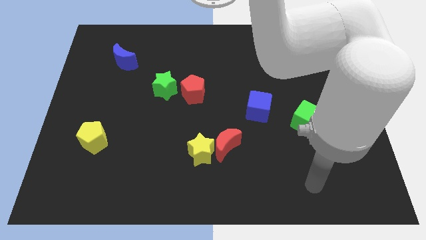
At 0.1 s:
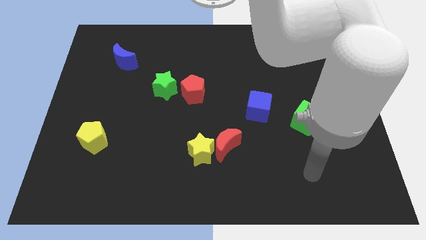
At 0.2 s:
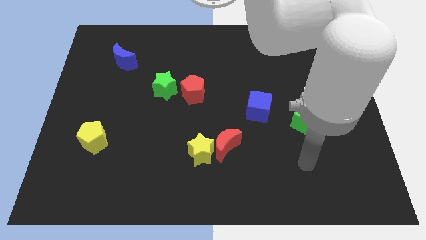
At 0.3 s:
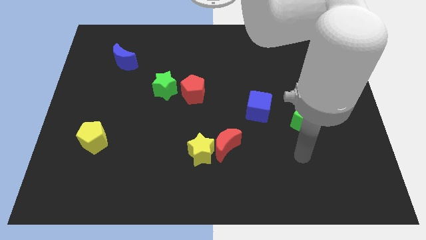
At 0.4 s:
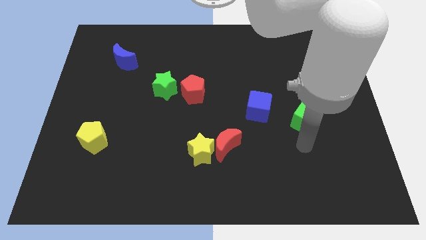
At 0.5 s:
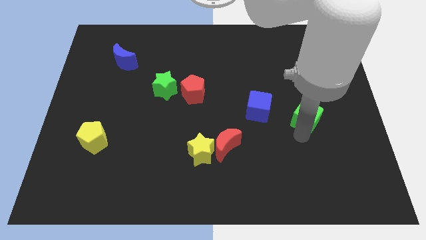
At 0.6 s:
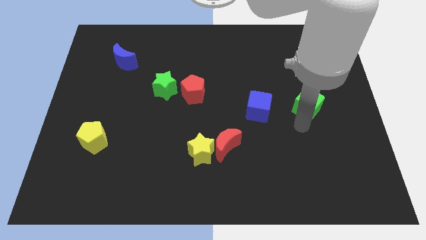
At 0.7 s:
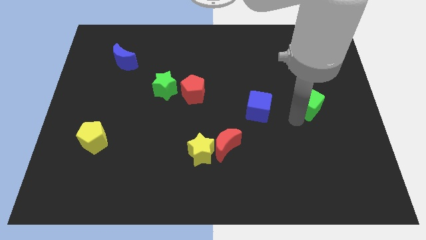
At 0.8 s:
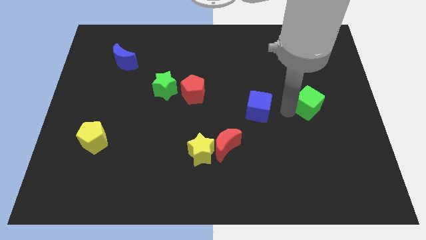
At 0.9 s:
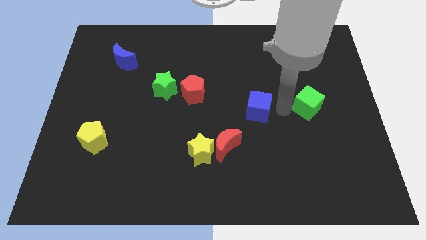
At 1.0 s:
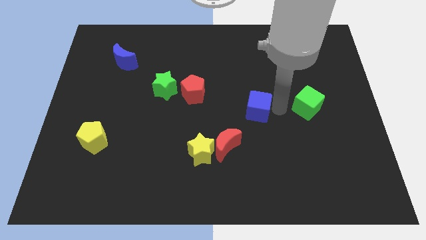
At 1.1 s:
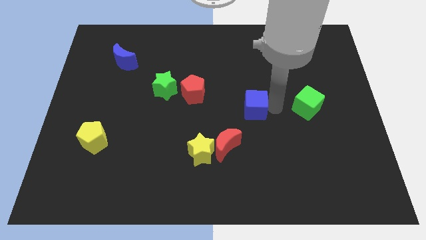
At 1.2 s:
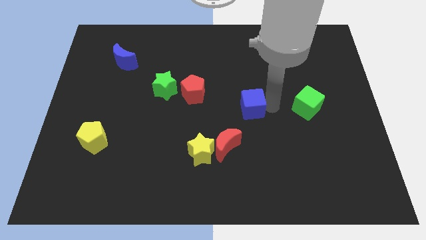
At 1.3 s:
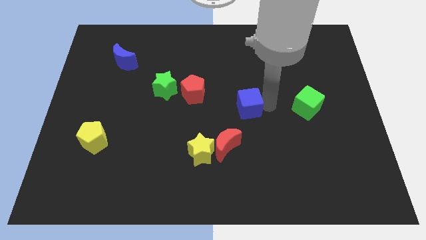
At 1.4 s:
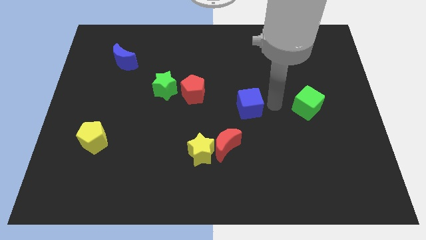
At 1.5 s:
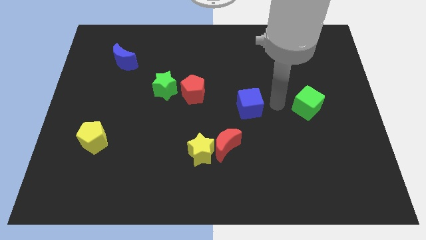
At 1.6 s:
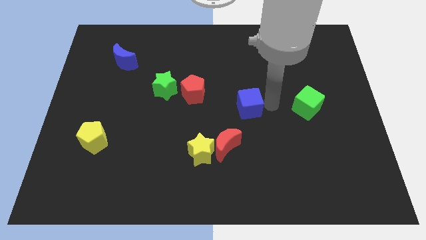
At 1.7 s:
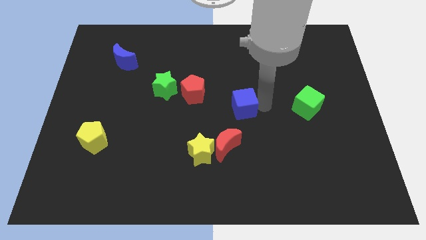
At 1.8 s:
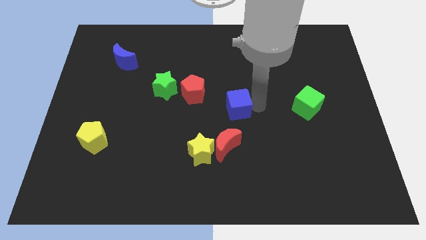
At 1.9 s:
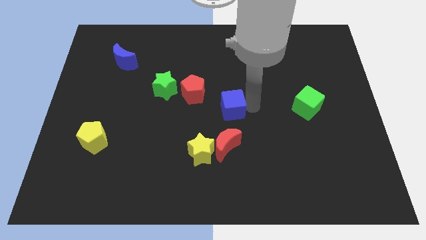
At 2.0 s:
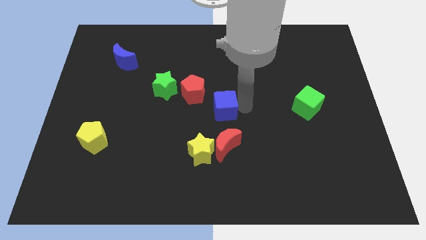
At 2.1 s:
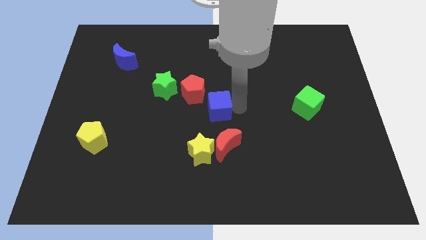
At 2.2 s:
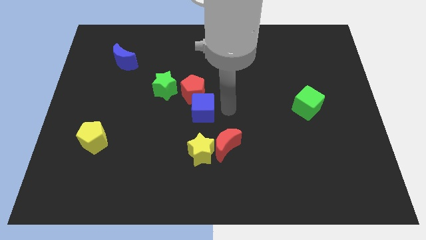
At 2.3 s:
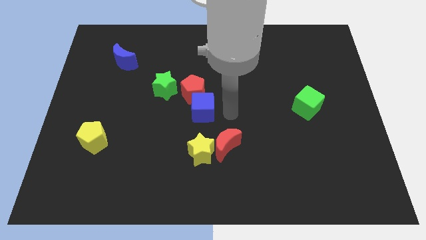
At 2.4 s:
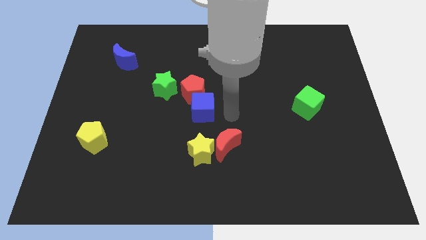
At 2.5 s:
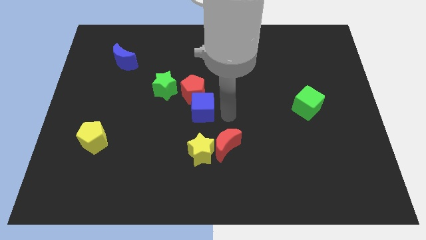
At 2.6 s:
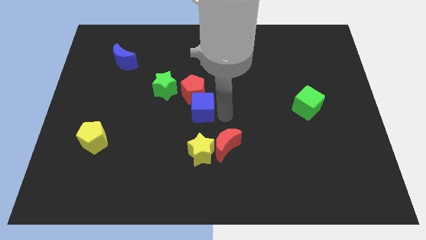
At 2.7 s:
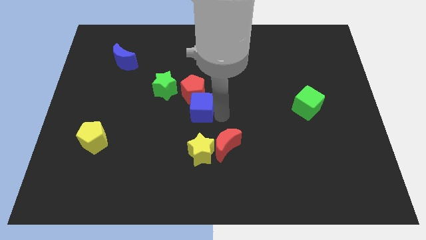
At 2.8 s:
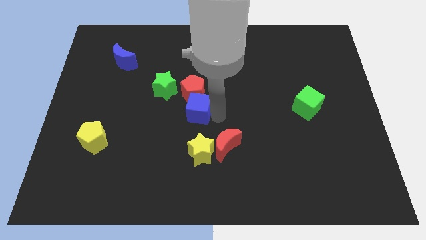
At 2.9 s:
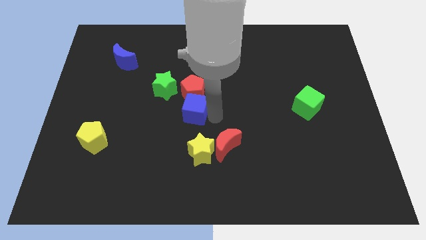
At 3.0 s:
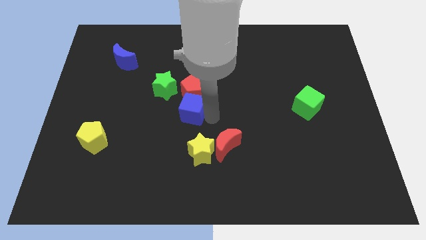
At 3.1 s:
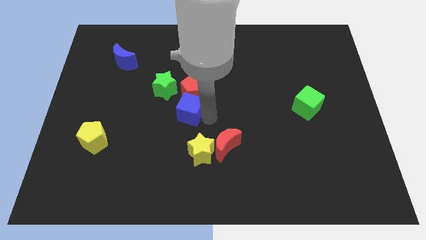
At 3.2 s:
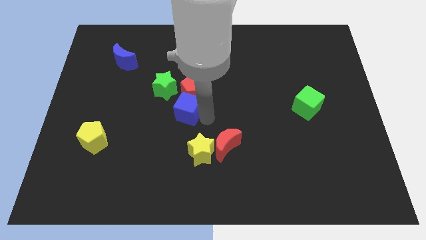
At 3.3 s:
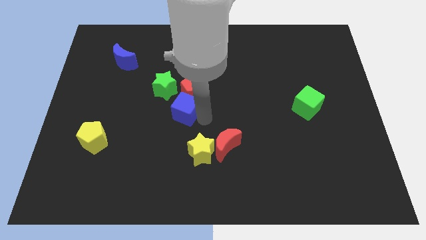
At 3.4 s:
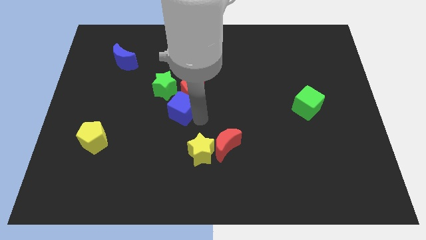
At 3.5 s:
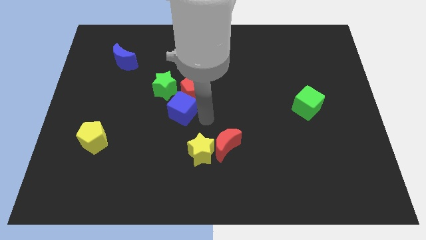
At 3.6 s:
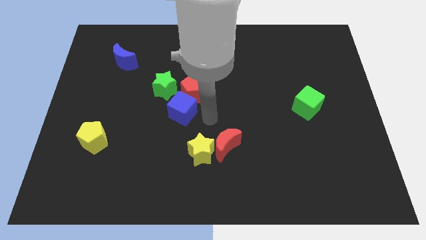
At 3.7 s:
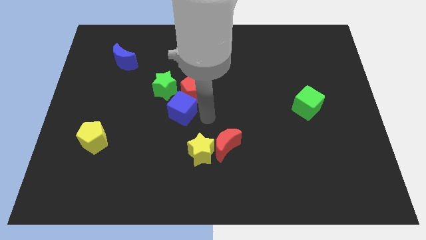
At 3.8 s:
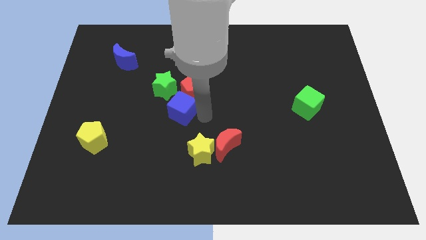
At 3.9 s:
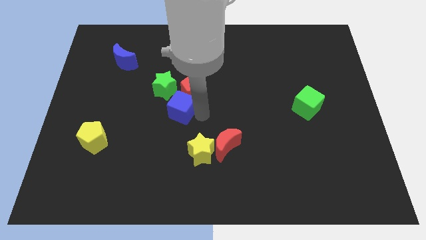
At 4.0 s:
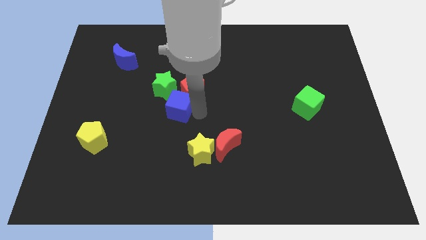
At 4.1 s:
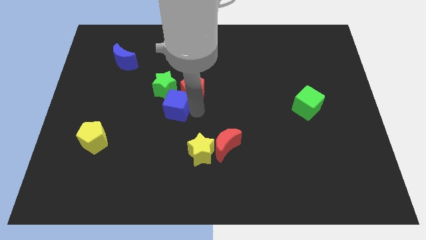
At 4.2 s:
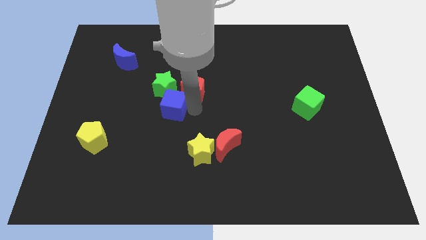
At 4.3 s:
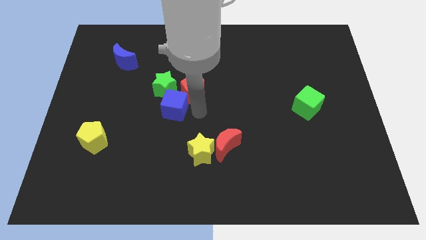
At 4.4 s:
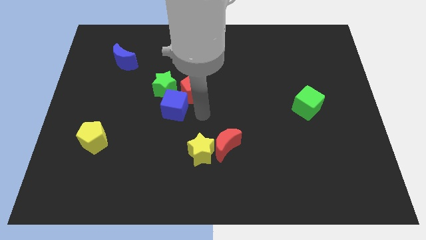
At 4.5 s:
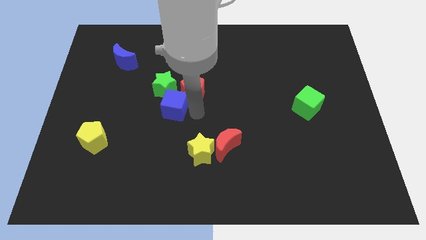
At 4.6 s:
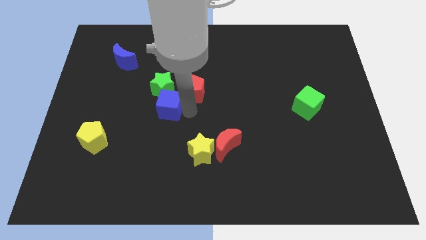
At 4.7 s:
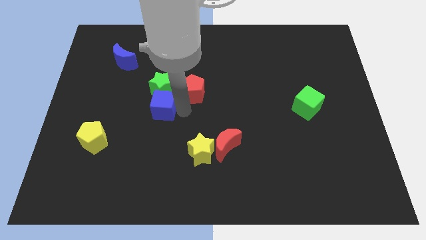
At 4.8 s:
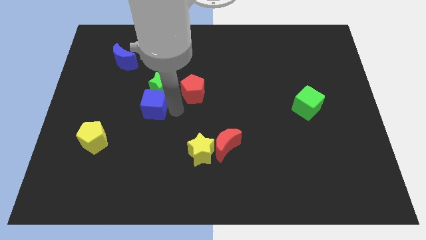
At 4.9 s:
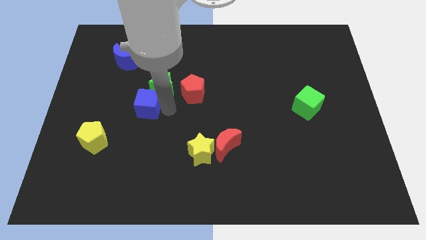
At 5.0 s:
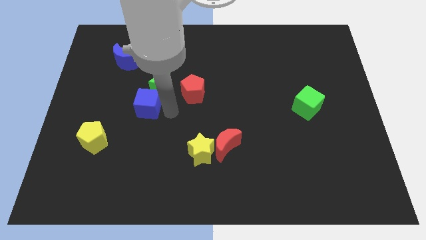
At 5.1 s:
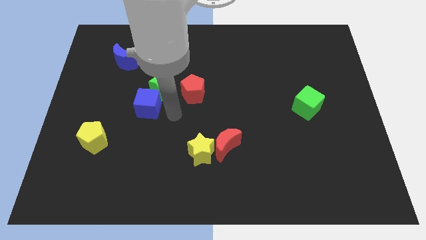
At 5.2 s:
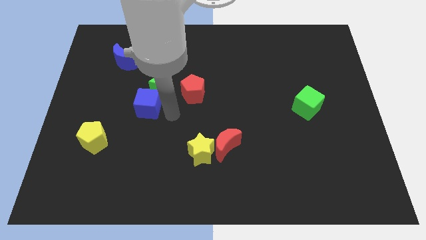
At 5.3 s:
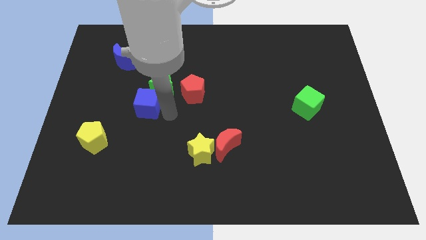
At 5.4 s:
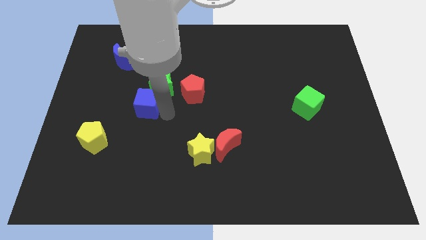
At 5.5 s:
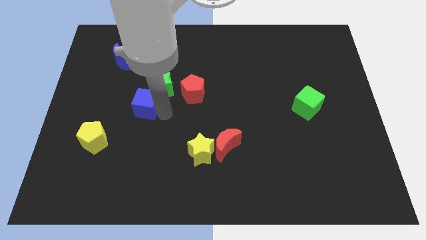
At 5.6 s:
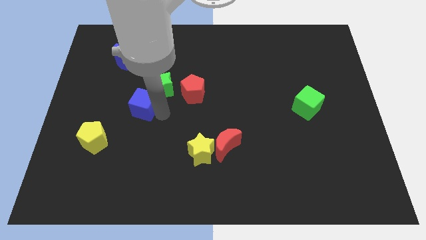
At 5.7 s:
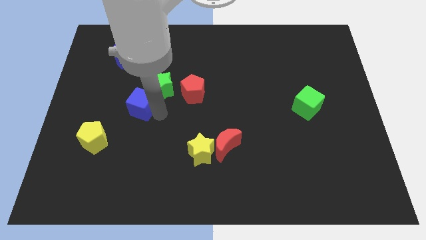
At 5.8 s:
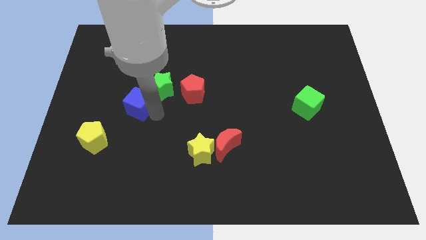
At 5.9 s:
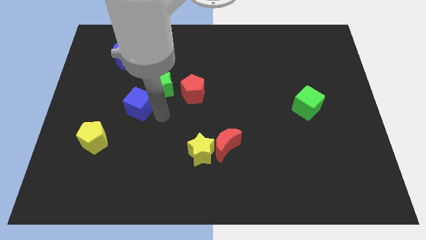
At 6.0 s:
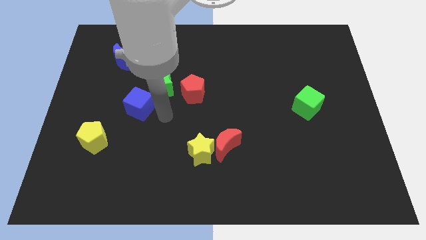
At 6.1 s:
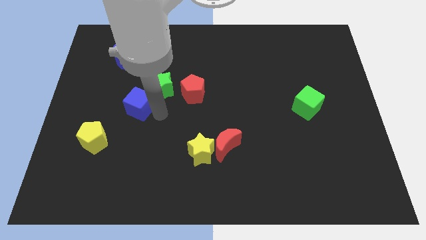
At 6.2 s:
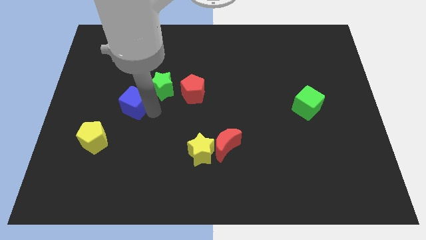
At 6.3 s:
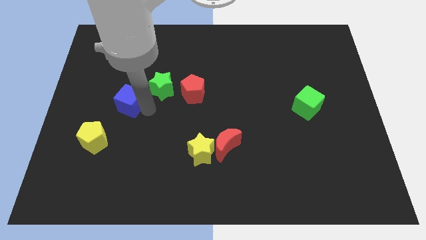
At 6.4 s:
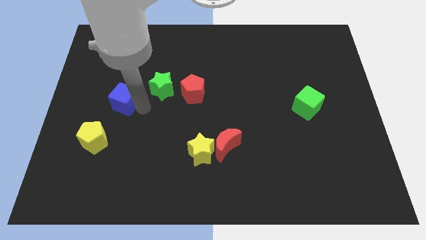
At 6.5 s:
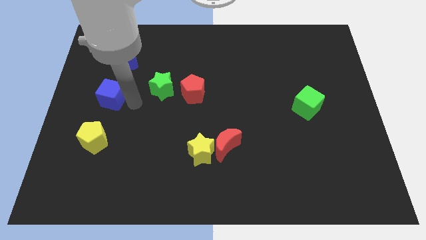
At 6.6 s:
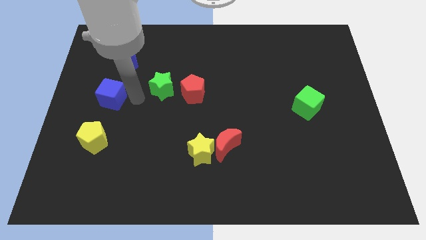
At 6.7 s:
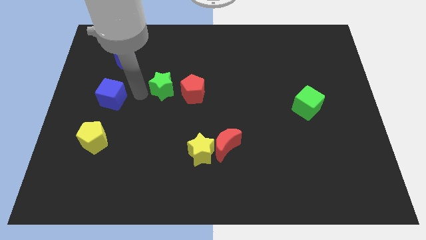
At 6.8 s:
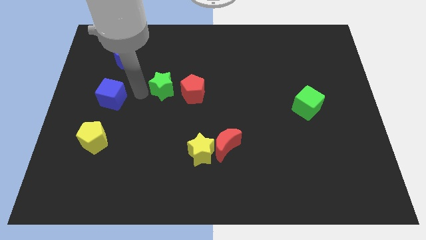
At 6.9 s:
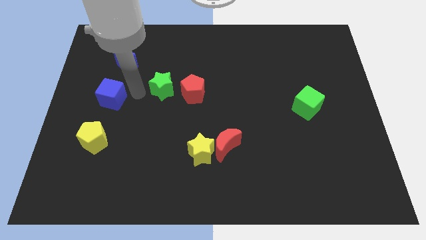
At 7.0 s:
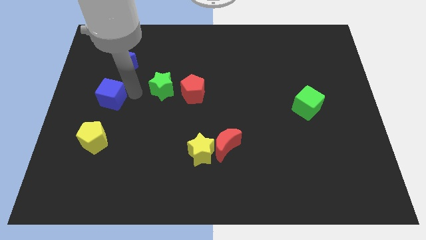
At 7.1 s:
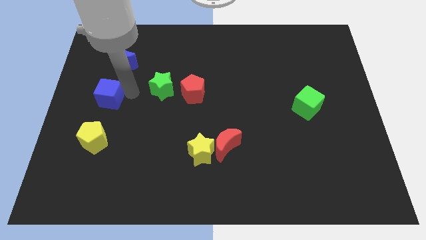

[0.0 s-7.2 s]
push the blue cube to the center left
